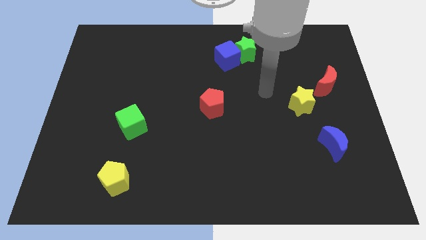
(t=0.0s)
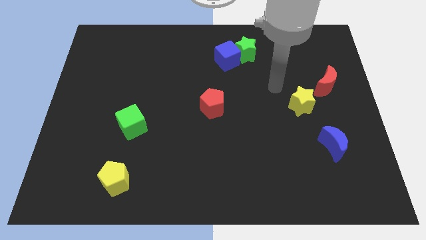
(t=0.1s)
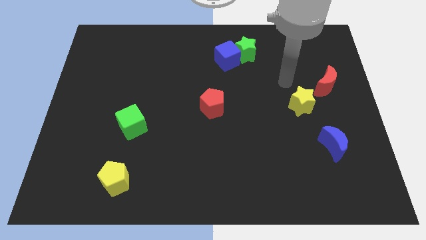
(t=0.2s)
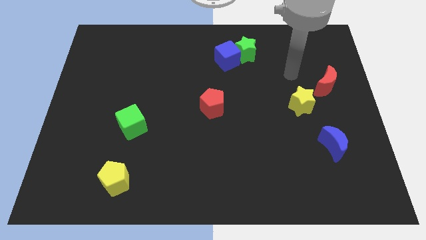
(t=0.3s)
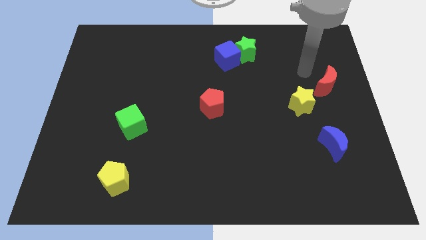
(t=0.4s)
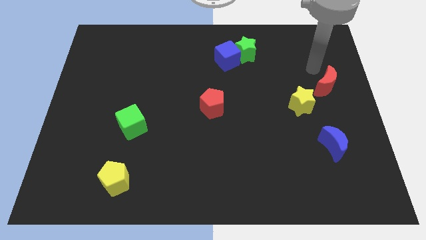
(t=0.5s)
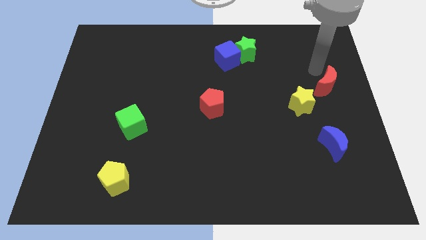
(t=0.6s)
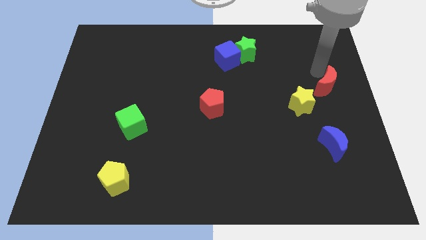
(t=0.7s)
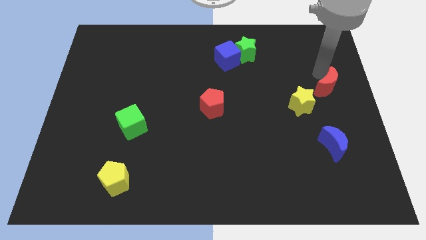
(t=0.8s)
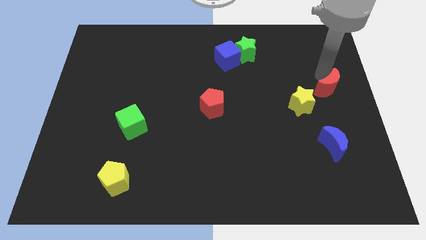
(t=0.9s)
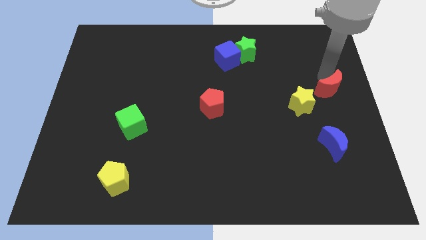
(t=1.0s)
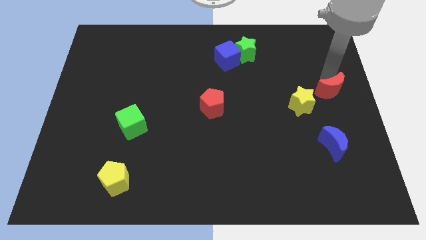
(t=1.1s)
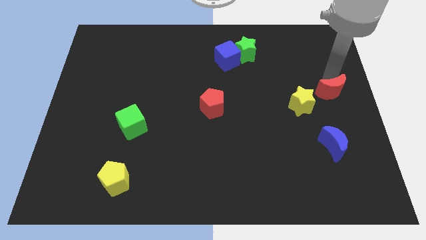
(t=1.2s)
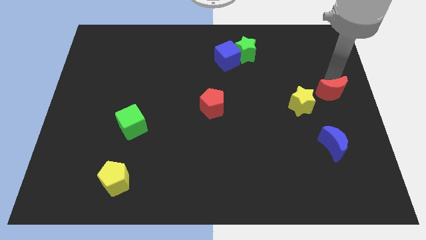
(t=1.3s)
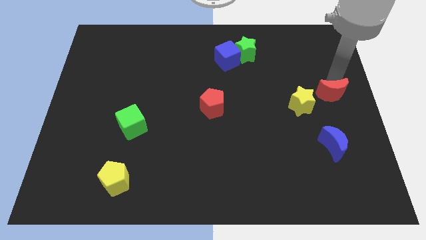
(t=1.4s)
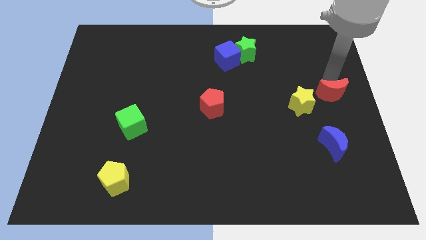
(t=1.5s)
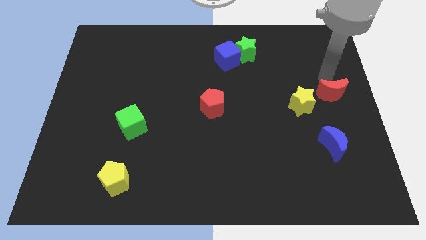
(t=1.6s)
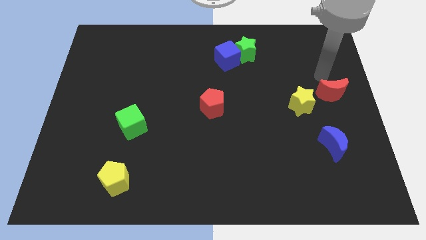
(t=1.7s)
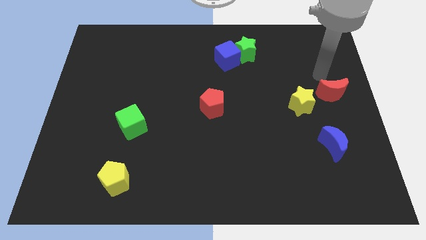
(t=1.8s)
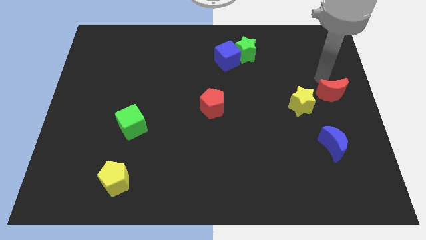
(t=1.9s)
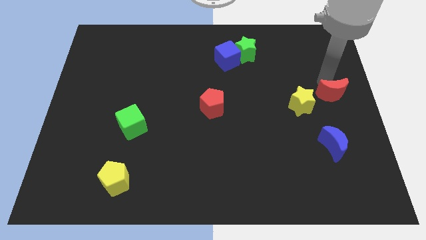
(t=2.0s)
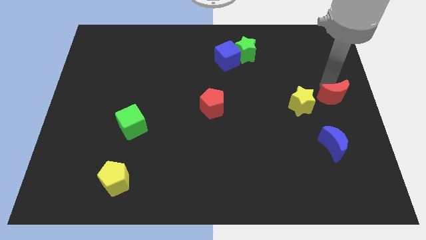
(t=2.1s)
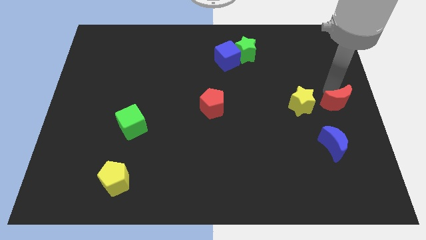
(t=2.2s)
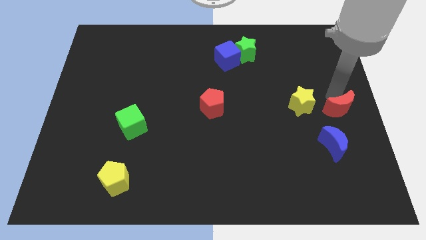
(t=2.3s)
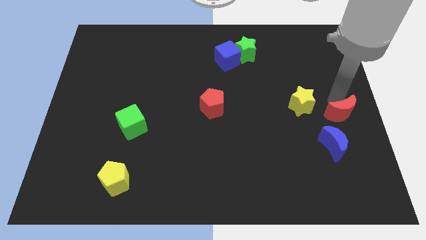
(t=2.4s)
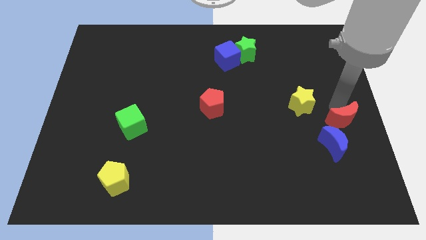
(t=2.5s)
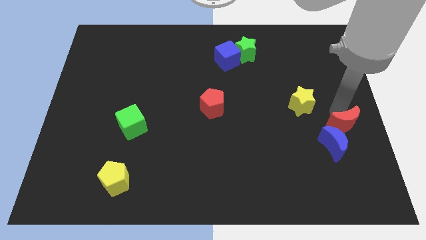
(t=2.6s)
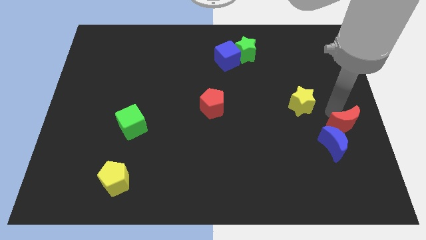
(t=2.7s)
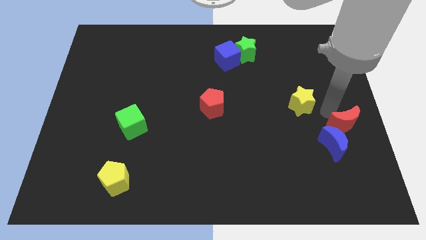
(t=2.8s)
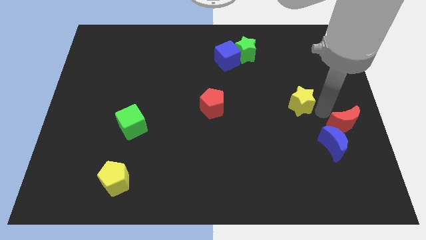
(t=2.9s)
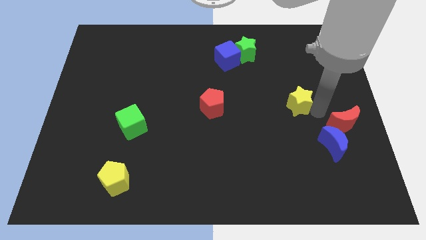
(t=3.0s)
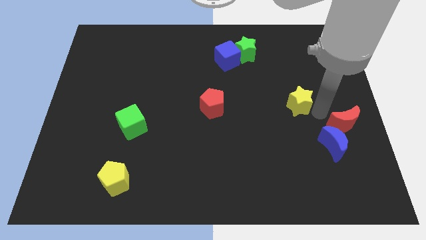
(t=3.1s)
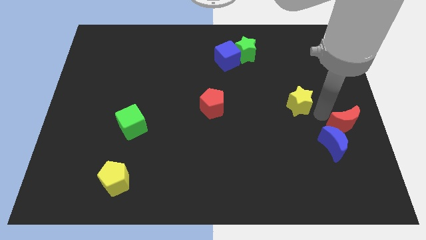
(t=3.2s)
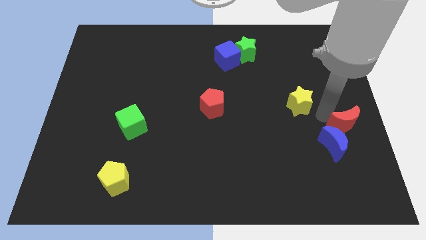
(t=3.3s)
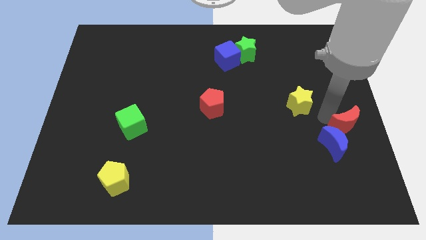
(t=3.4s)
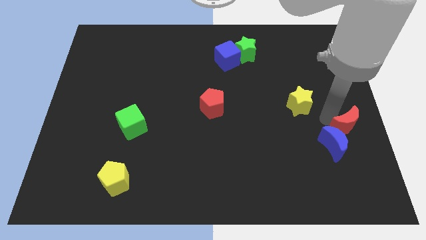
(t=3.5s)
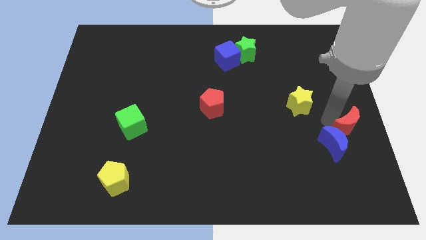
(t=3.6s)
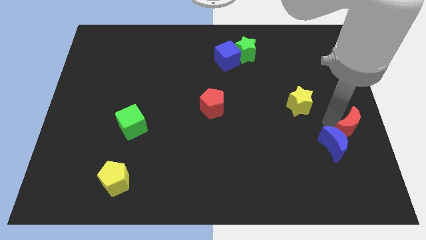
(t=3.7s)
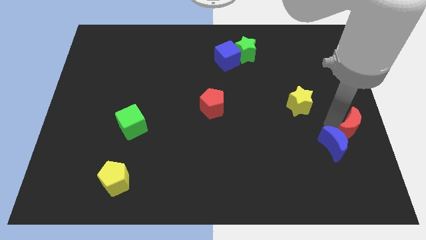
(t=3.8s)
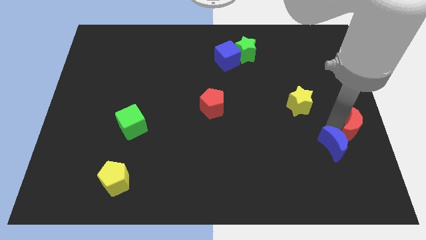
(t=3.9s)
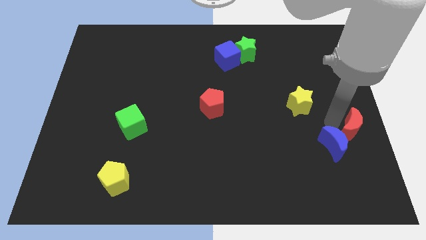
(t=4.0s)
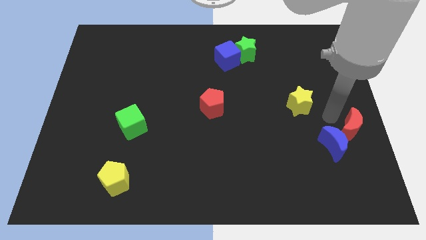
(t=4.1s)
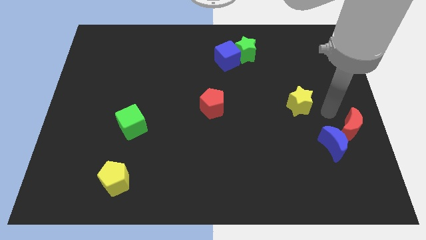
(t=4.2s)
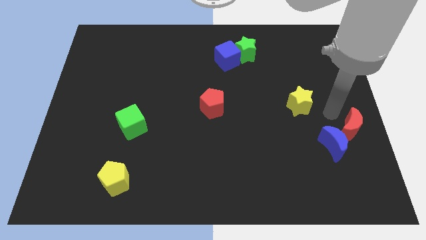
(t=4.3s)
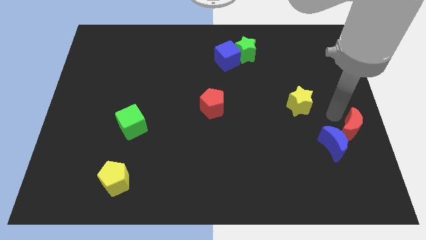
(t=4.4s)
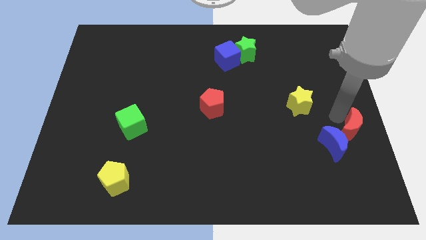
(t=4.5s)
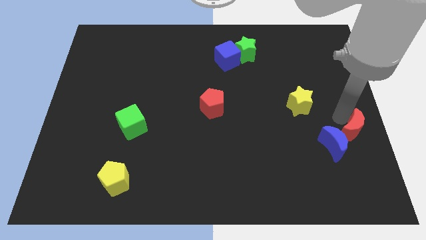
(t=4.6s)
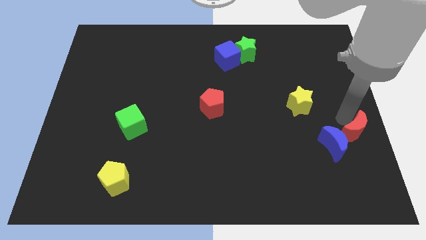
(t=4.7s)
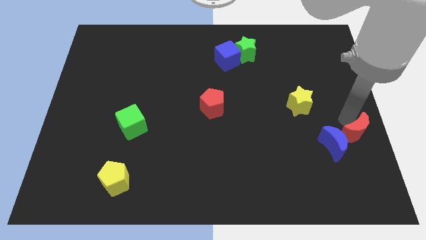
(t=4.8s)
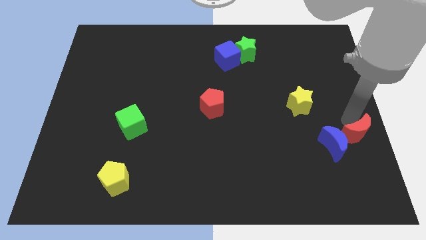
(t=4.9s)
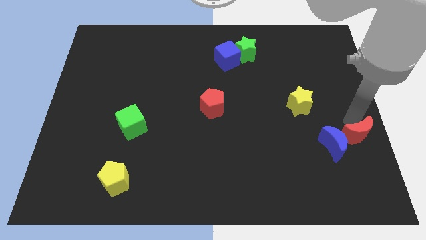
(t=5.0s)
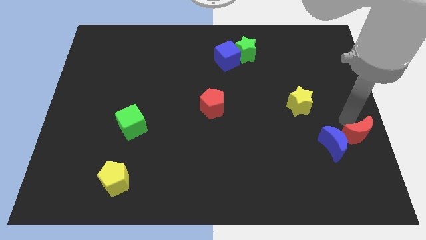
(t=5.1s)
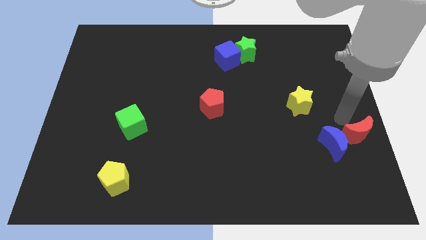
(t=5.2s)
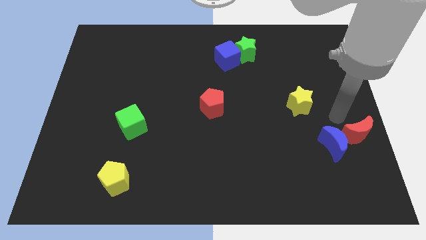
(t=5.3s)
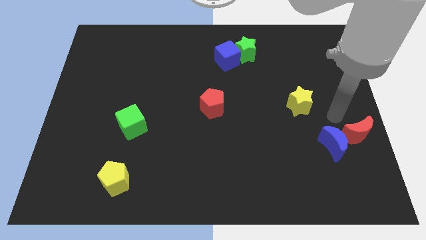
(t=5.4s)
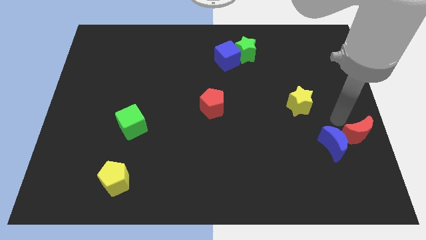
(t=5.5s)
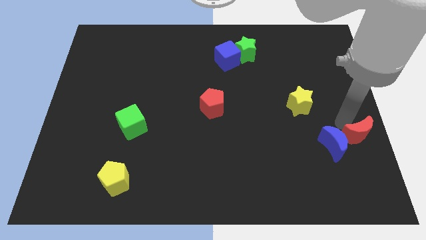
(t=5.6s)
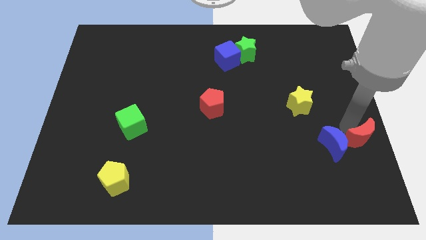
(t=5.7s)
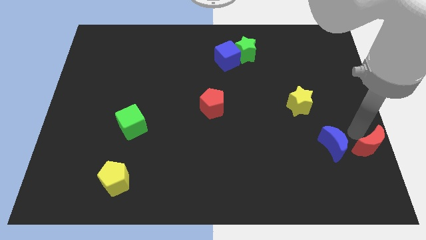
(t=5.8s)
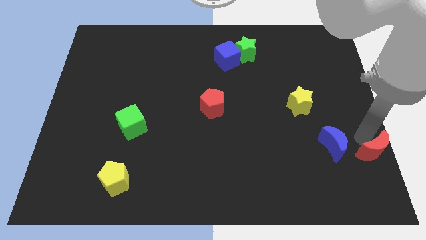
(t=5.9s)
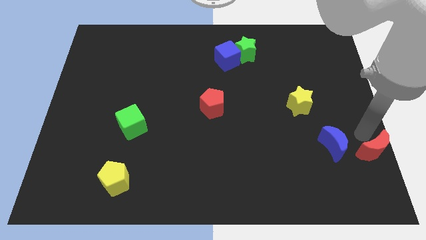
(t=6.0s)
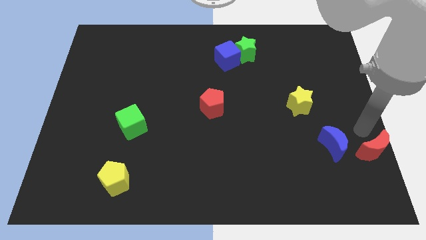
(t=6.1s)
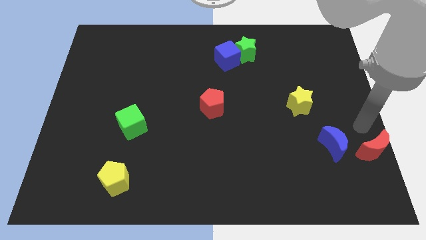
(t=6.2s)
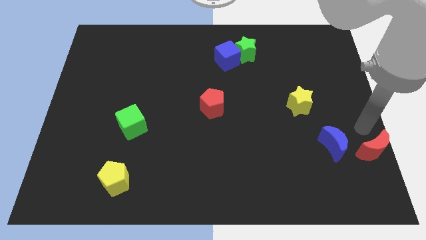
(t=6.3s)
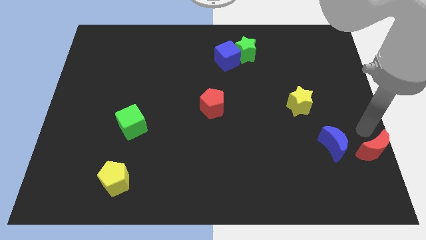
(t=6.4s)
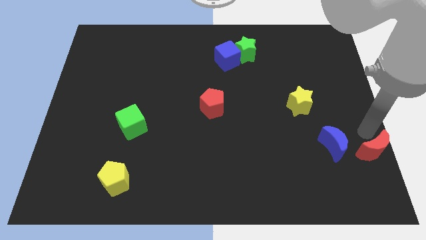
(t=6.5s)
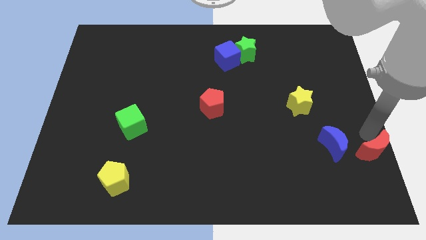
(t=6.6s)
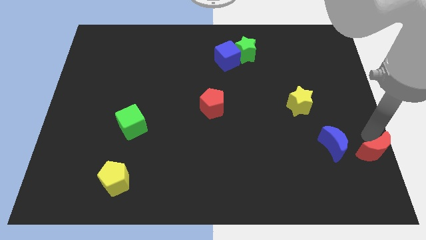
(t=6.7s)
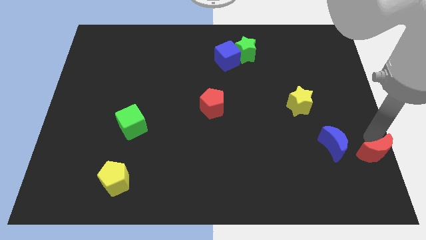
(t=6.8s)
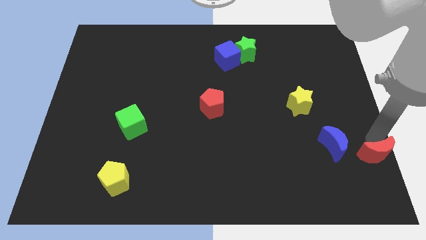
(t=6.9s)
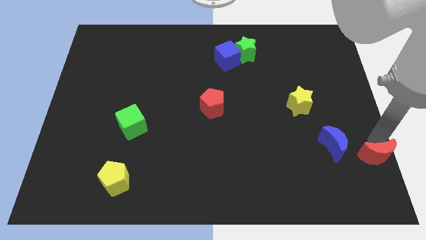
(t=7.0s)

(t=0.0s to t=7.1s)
put the red moon to the bottom right corner
